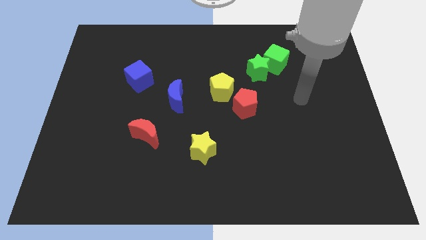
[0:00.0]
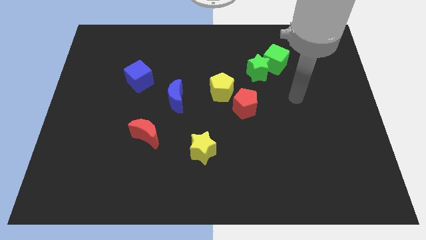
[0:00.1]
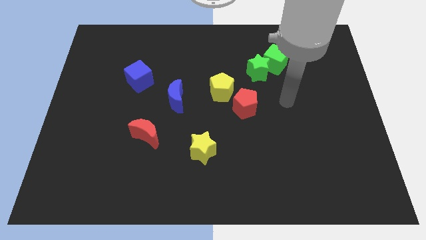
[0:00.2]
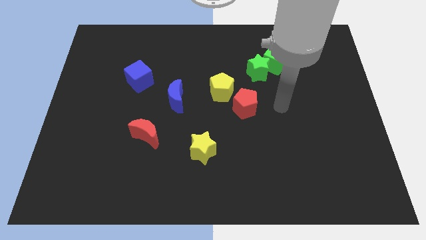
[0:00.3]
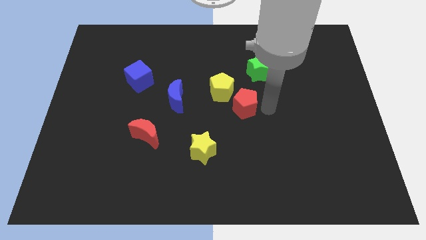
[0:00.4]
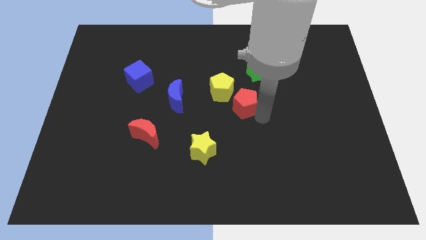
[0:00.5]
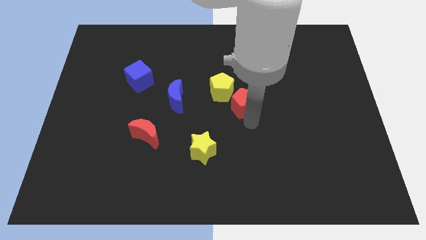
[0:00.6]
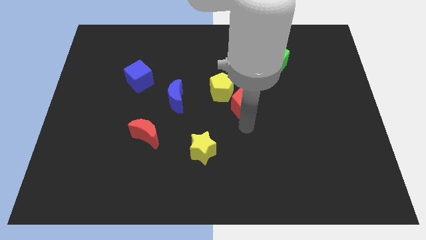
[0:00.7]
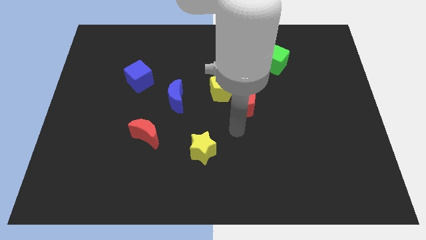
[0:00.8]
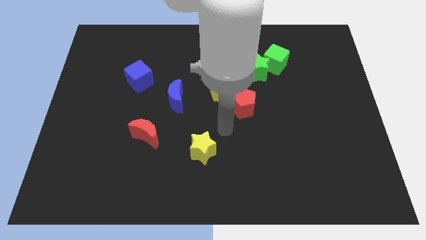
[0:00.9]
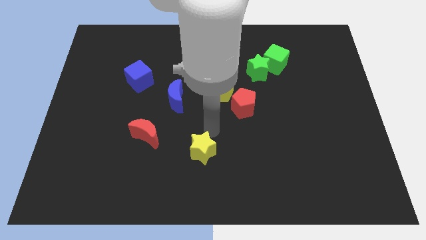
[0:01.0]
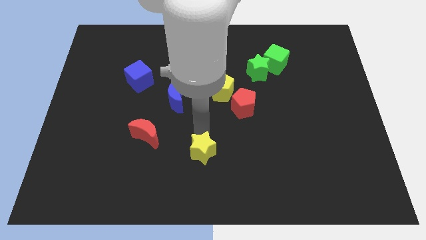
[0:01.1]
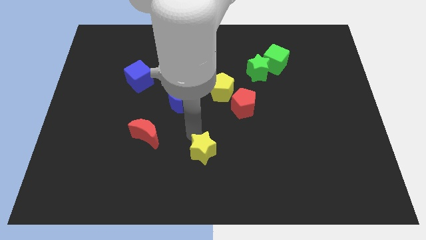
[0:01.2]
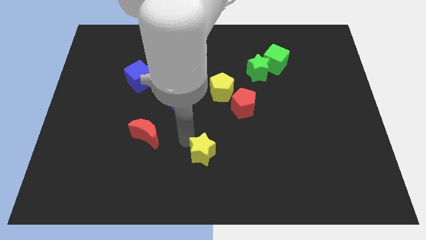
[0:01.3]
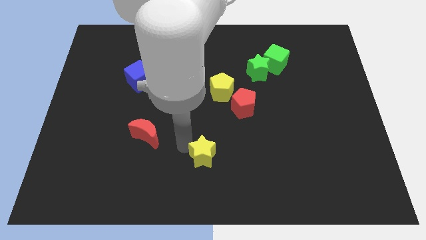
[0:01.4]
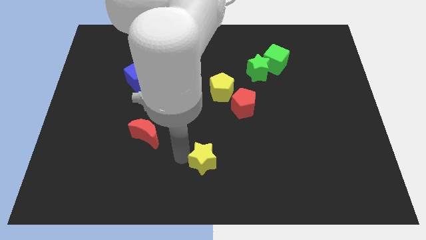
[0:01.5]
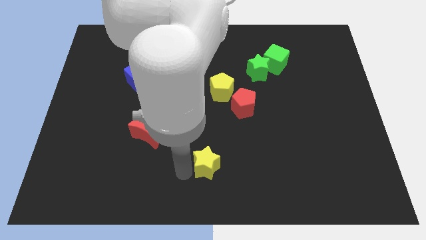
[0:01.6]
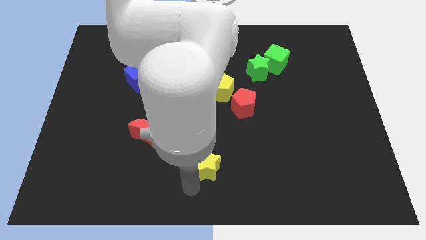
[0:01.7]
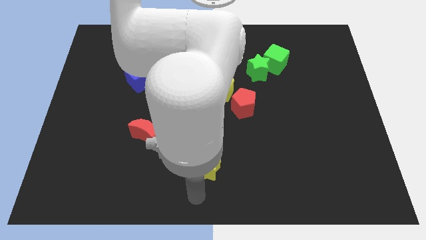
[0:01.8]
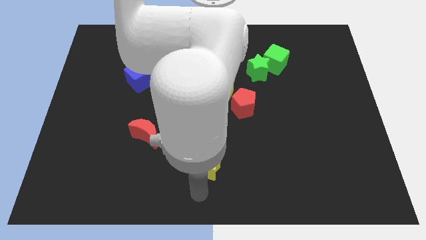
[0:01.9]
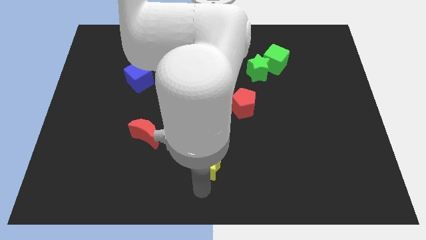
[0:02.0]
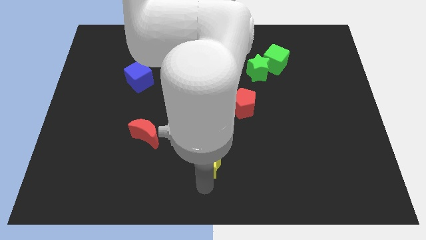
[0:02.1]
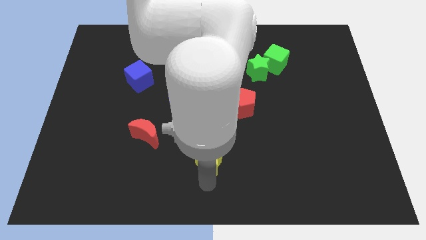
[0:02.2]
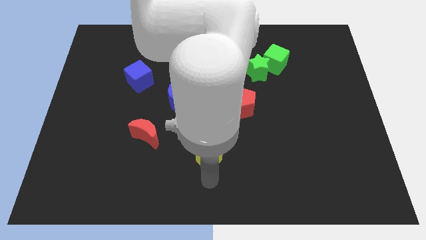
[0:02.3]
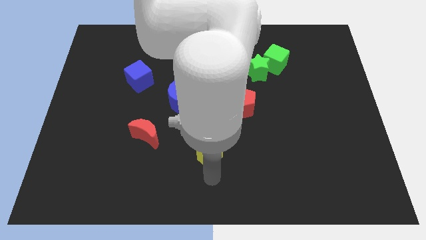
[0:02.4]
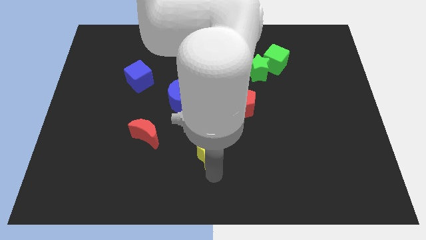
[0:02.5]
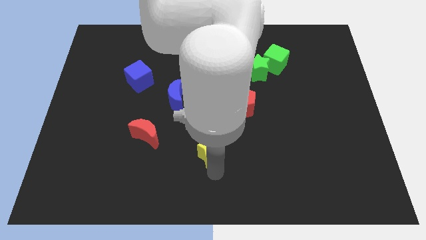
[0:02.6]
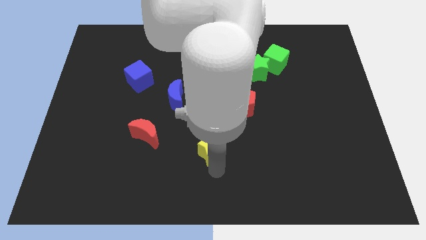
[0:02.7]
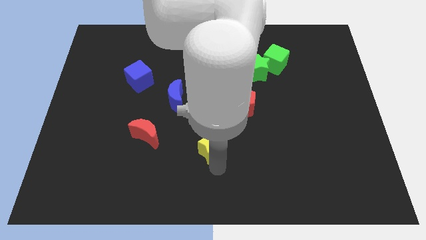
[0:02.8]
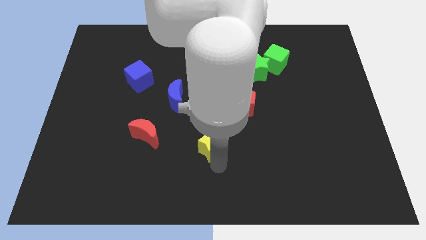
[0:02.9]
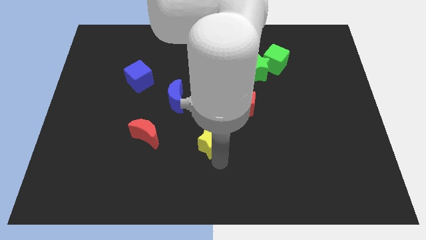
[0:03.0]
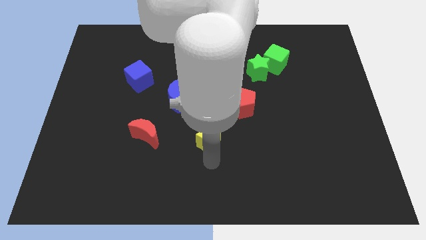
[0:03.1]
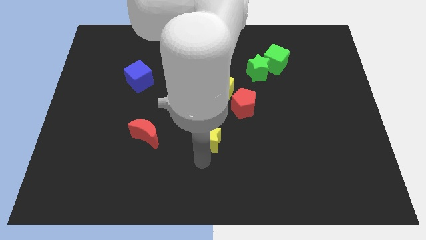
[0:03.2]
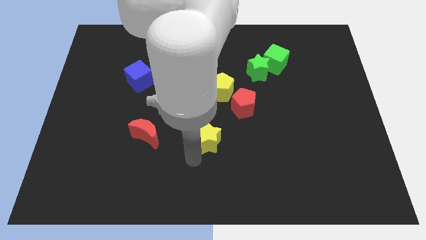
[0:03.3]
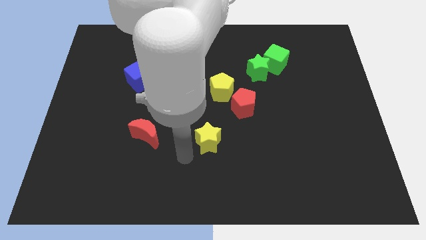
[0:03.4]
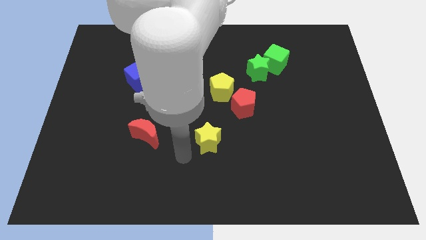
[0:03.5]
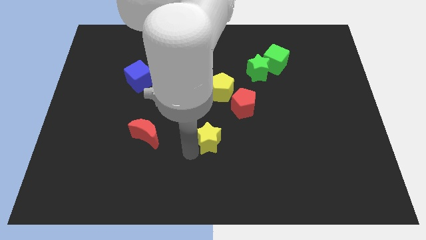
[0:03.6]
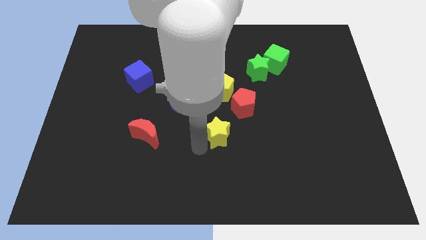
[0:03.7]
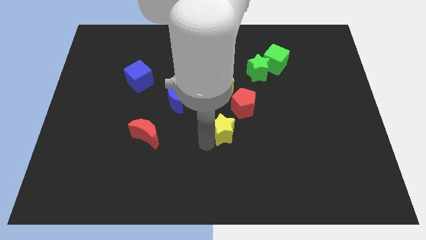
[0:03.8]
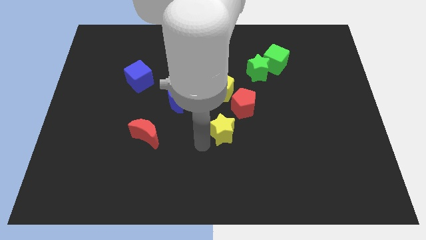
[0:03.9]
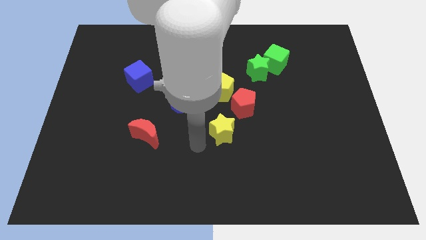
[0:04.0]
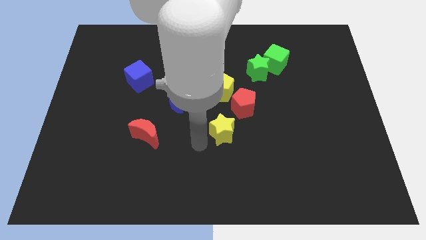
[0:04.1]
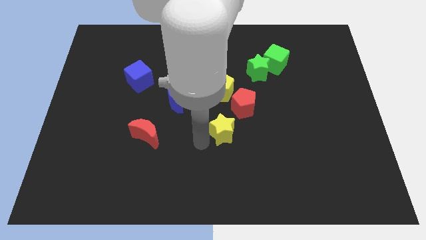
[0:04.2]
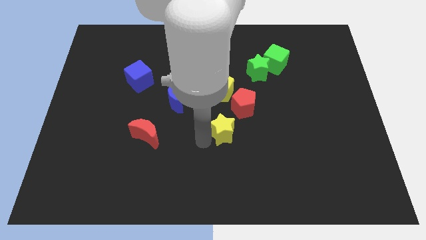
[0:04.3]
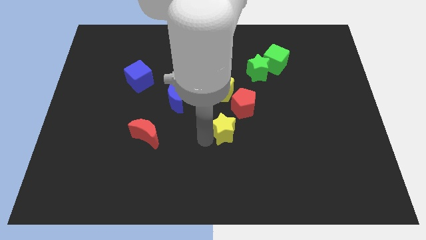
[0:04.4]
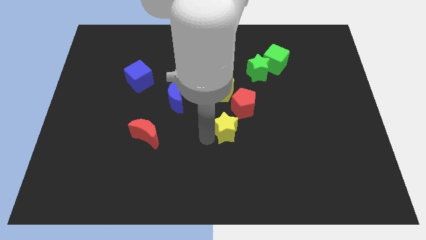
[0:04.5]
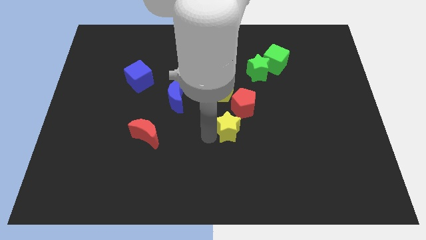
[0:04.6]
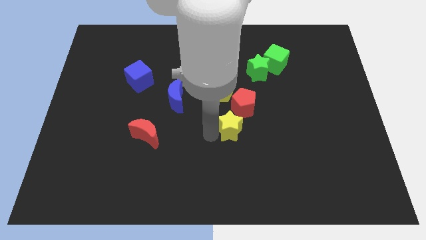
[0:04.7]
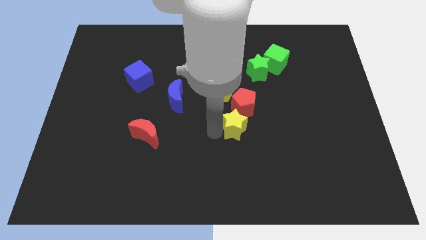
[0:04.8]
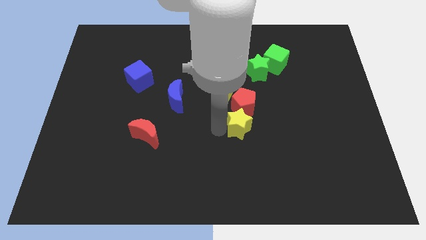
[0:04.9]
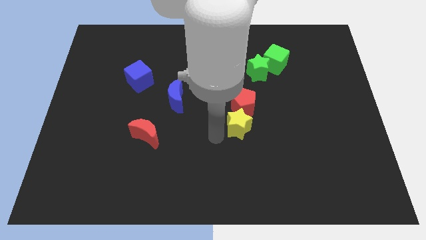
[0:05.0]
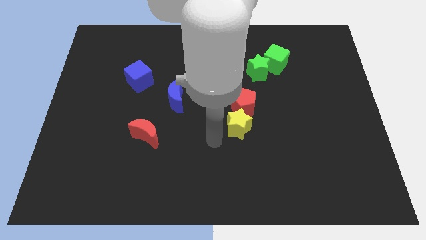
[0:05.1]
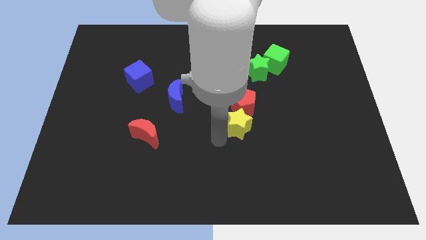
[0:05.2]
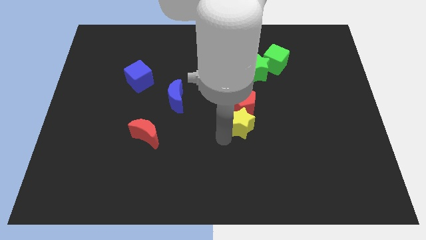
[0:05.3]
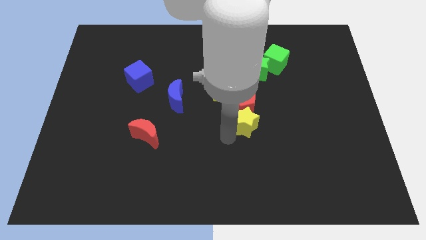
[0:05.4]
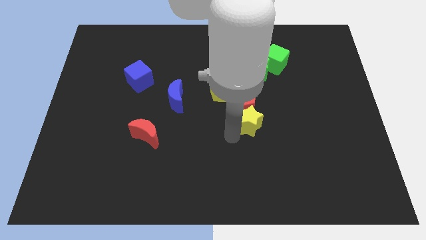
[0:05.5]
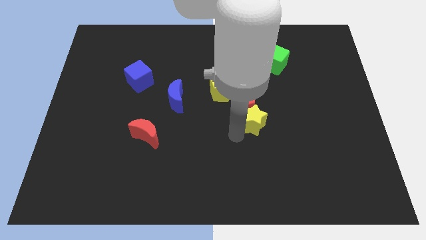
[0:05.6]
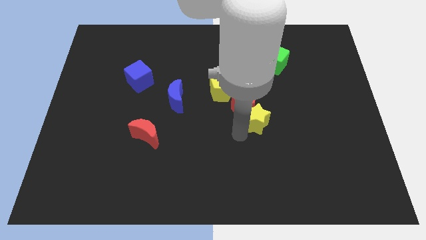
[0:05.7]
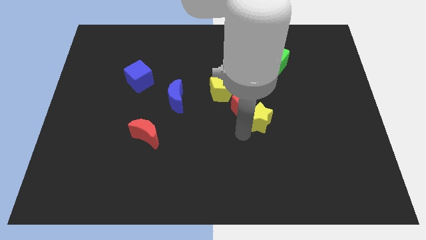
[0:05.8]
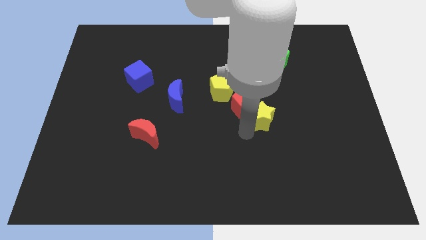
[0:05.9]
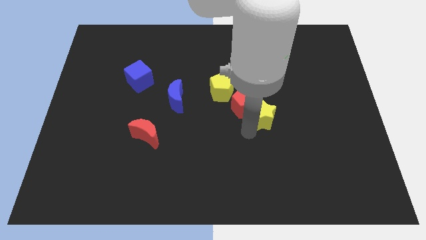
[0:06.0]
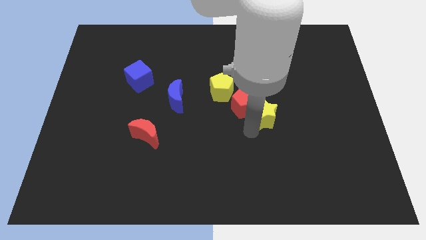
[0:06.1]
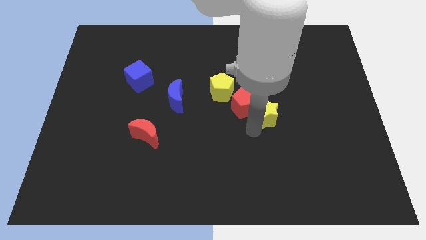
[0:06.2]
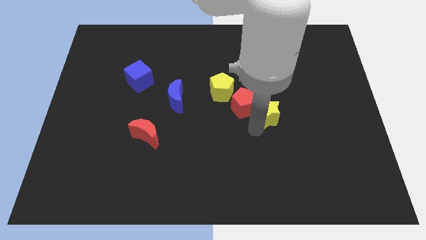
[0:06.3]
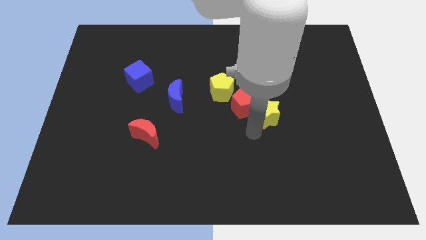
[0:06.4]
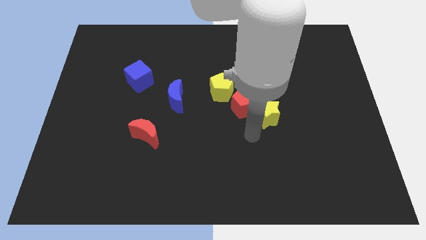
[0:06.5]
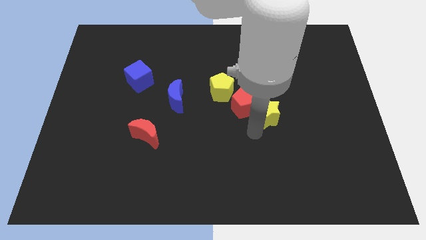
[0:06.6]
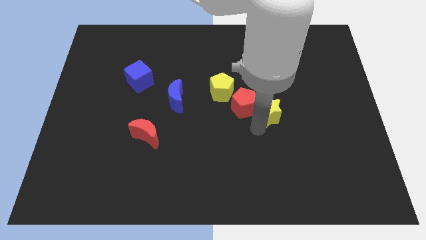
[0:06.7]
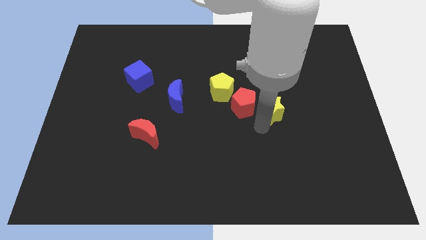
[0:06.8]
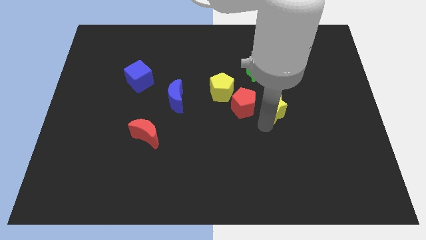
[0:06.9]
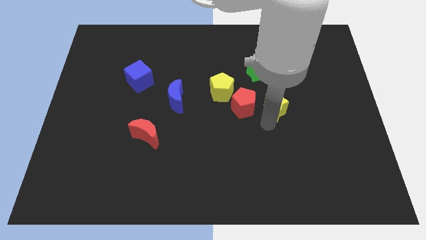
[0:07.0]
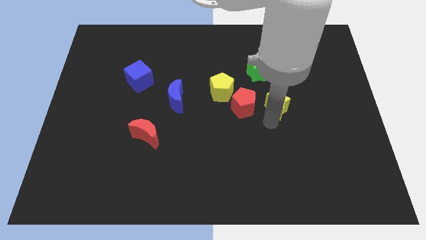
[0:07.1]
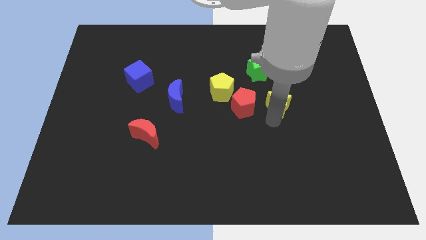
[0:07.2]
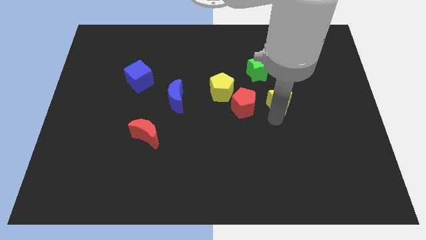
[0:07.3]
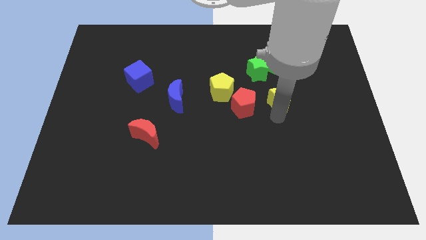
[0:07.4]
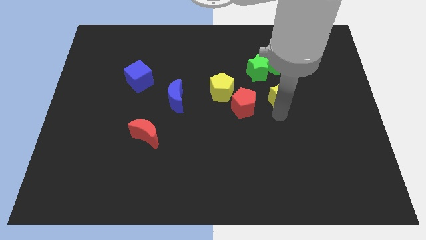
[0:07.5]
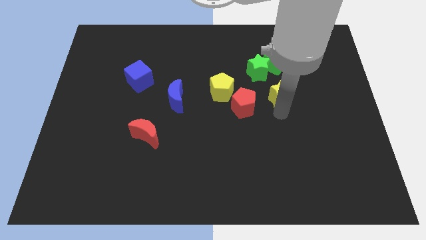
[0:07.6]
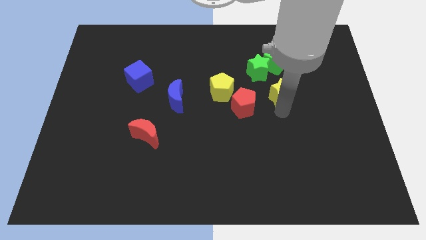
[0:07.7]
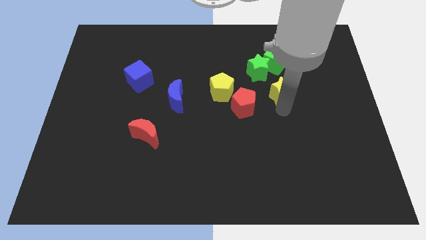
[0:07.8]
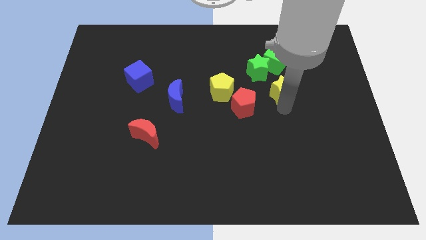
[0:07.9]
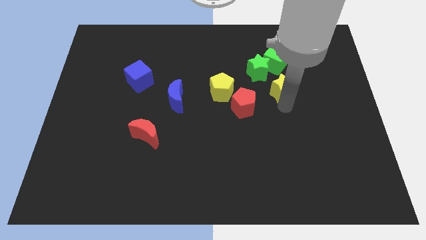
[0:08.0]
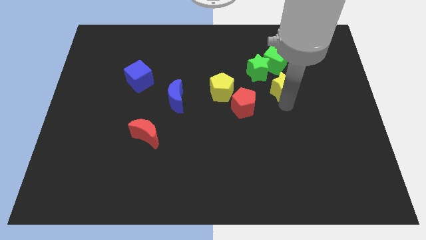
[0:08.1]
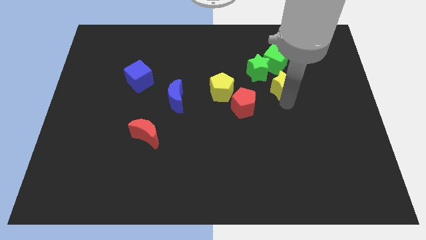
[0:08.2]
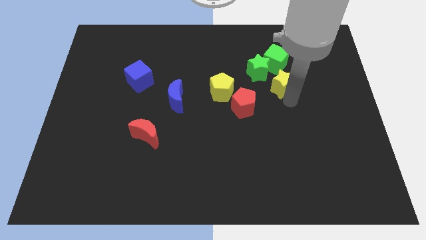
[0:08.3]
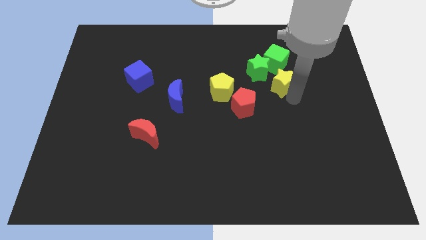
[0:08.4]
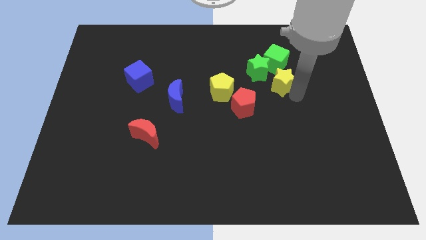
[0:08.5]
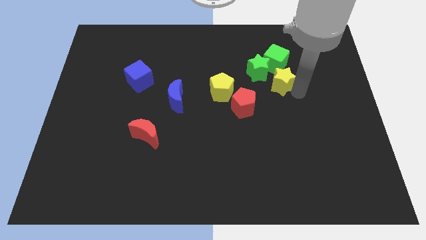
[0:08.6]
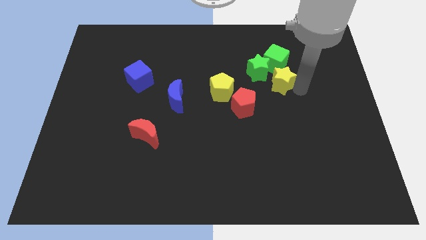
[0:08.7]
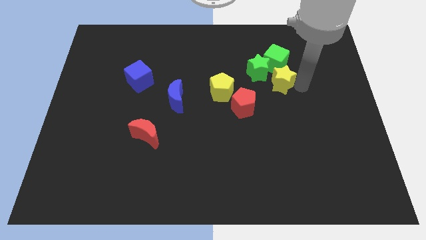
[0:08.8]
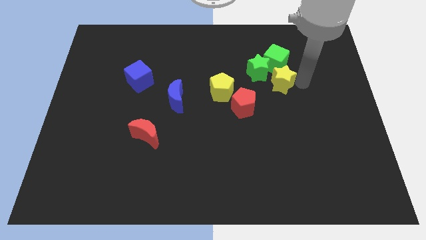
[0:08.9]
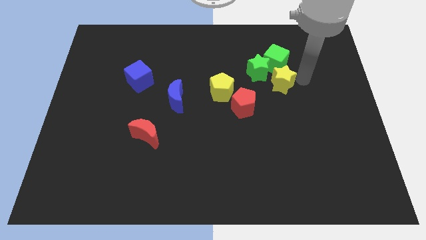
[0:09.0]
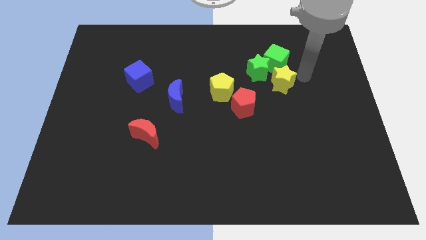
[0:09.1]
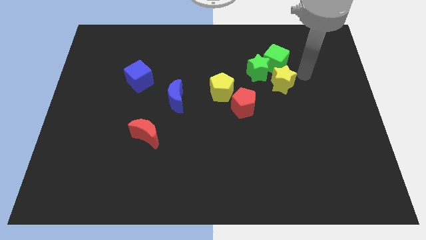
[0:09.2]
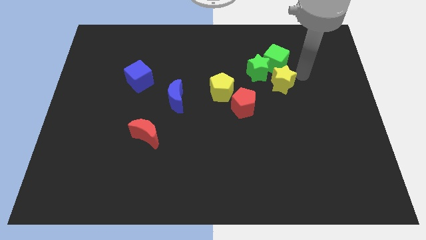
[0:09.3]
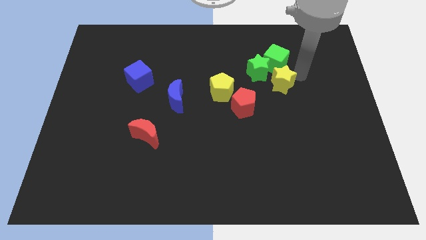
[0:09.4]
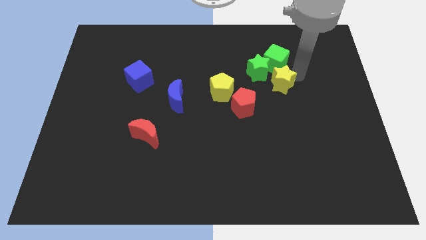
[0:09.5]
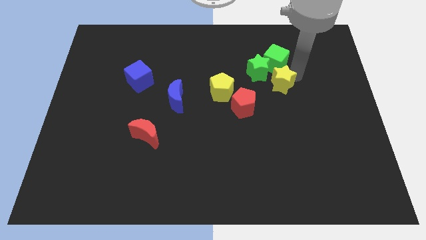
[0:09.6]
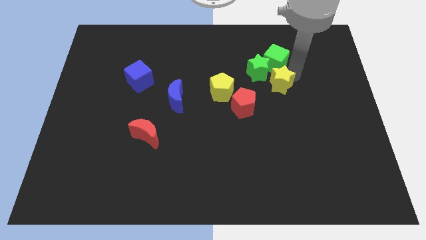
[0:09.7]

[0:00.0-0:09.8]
put the yellow star next to the green star
